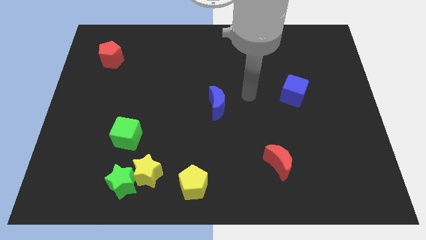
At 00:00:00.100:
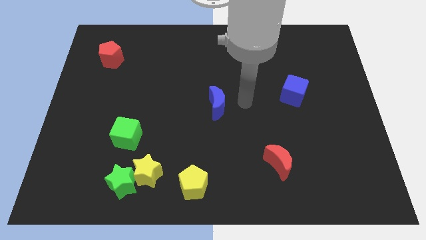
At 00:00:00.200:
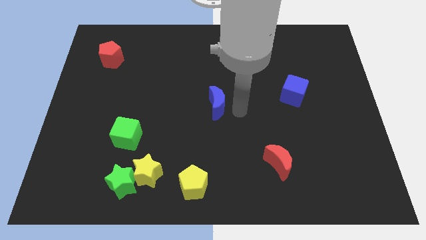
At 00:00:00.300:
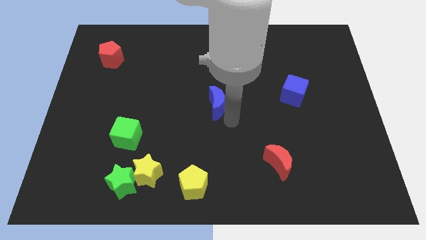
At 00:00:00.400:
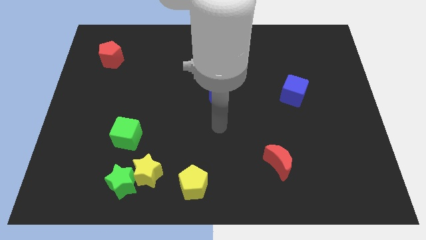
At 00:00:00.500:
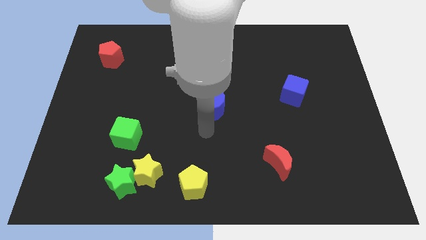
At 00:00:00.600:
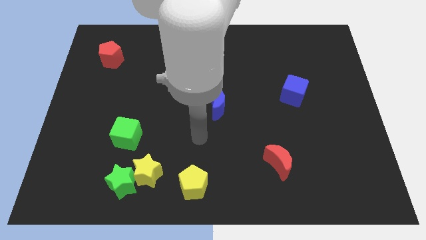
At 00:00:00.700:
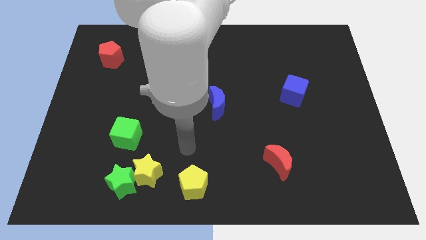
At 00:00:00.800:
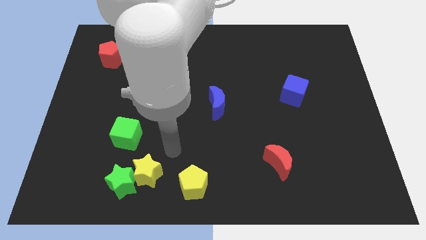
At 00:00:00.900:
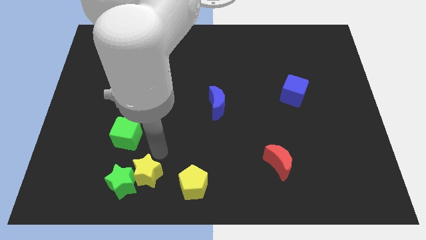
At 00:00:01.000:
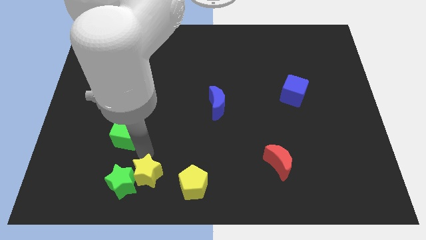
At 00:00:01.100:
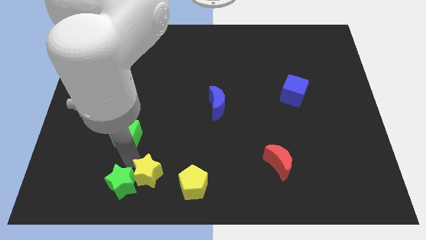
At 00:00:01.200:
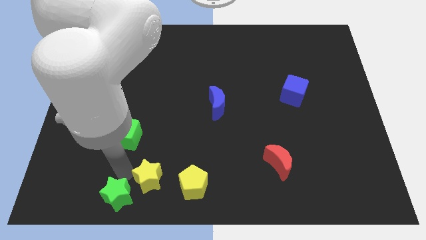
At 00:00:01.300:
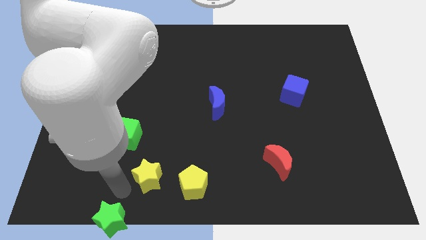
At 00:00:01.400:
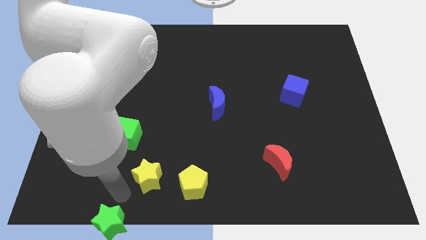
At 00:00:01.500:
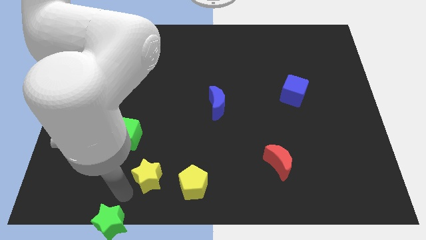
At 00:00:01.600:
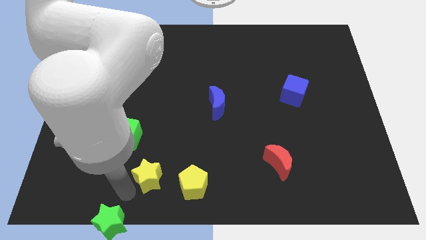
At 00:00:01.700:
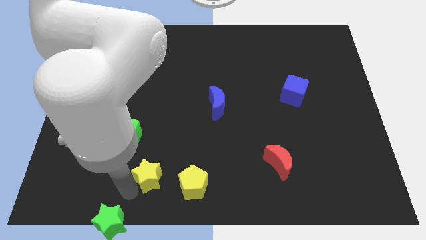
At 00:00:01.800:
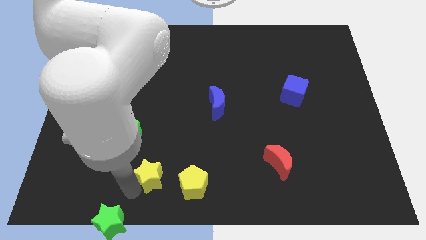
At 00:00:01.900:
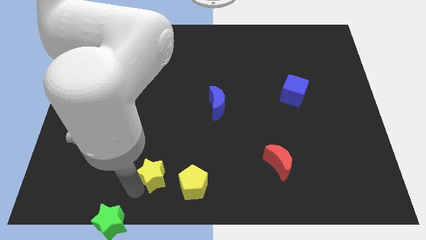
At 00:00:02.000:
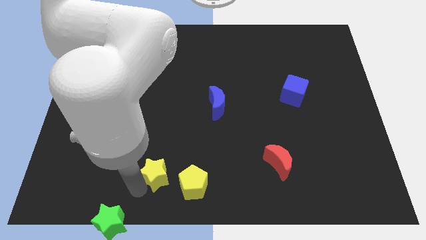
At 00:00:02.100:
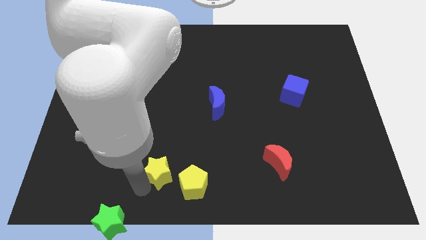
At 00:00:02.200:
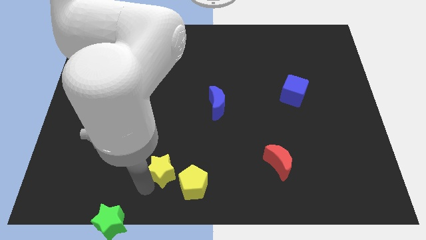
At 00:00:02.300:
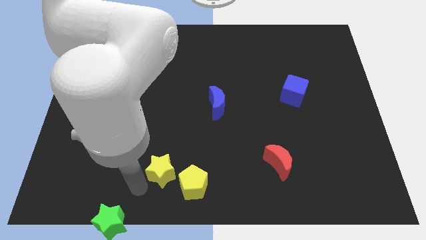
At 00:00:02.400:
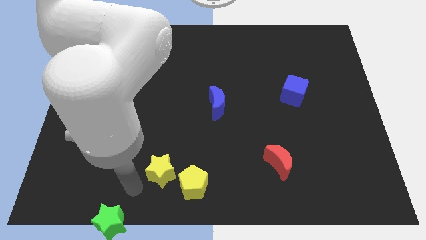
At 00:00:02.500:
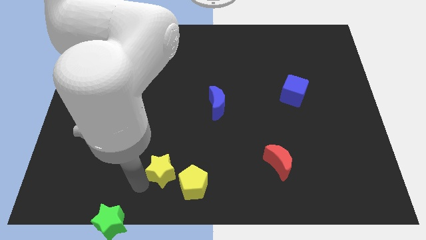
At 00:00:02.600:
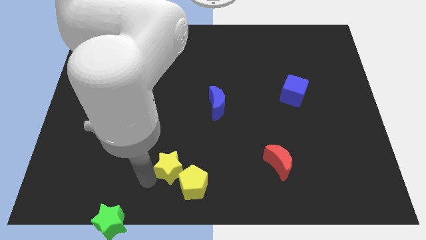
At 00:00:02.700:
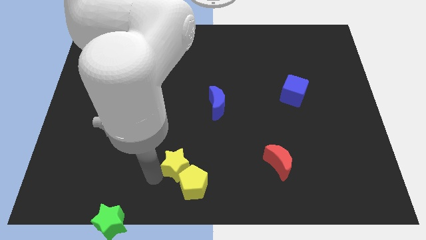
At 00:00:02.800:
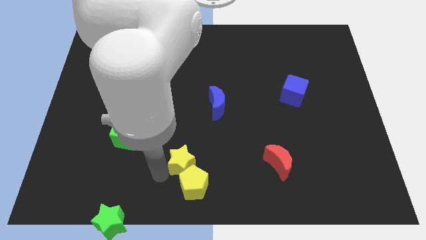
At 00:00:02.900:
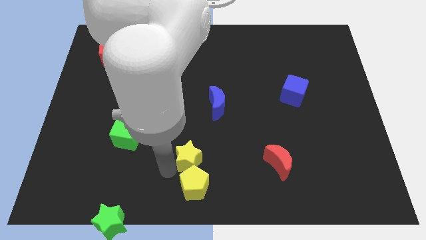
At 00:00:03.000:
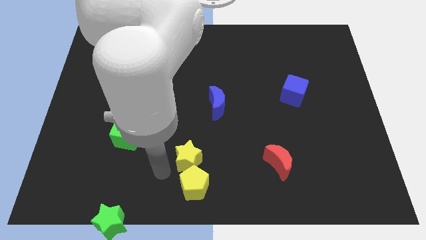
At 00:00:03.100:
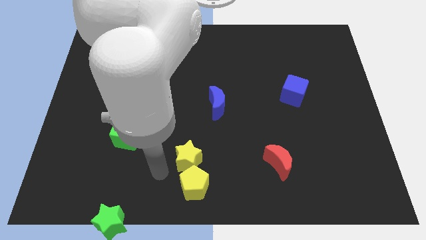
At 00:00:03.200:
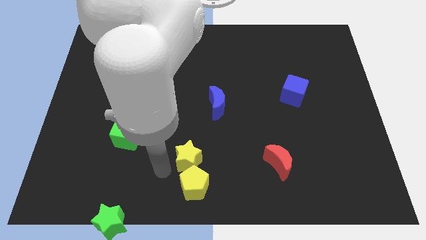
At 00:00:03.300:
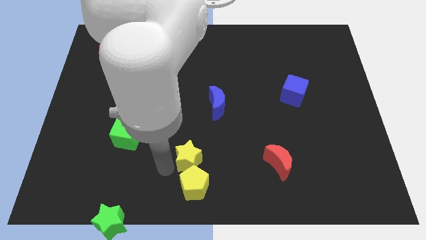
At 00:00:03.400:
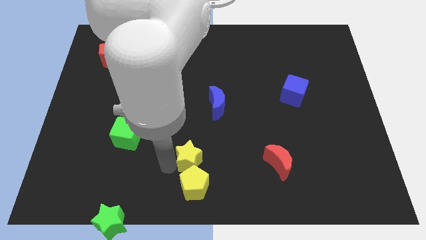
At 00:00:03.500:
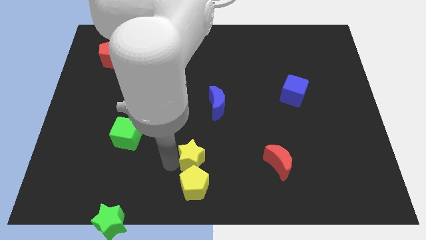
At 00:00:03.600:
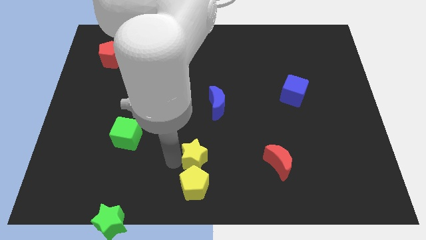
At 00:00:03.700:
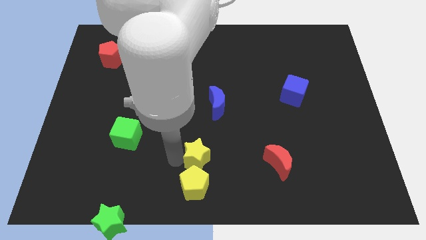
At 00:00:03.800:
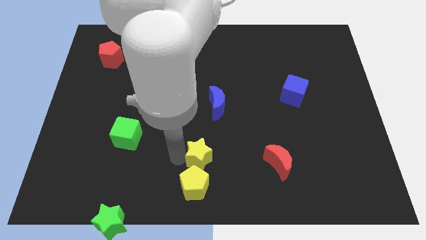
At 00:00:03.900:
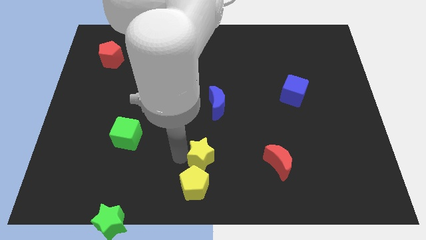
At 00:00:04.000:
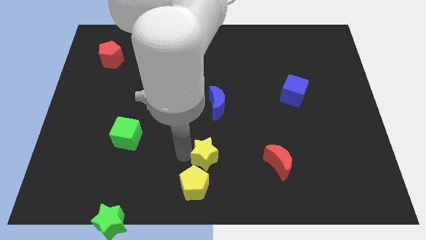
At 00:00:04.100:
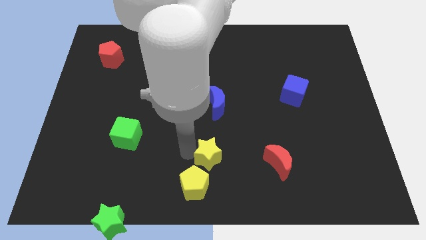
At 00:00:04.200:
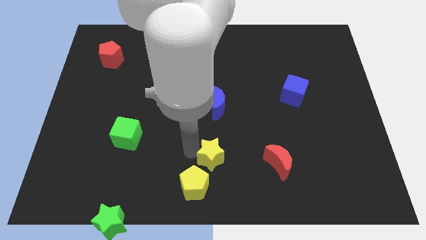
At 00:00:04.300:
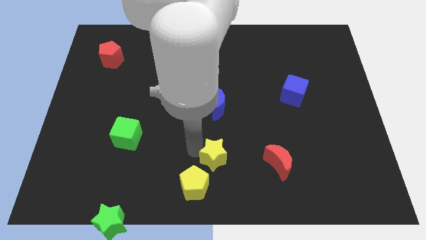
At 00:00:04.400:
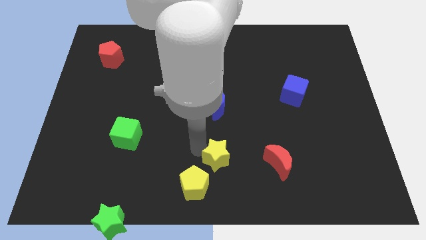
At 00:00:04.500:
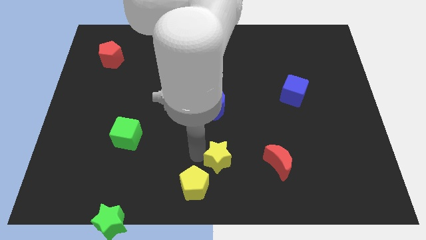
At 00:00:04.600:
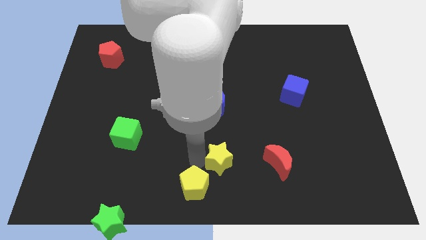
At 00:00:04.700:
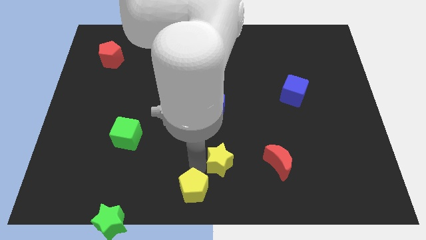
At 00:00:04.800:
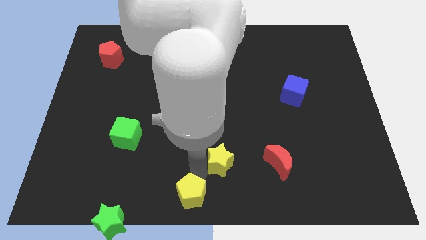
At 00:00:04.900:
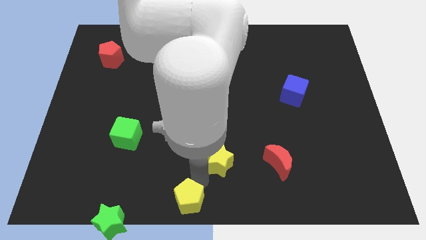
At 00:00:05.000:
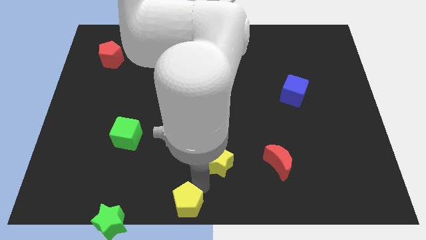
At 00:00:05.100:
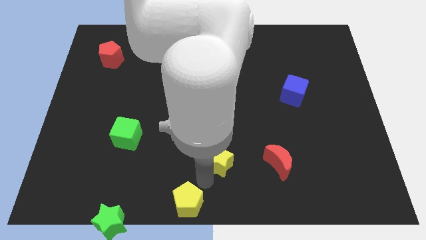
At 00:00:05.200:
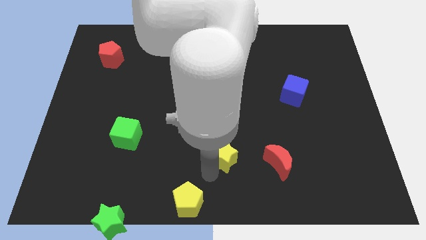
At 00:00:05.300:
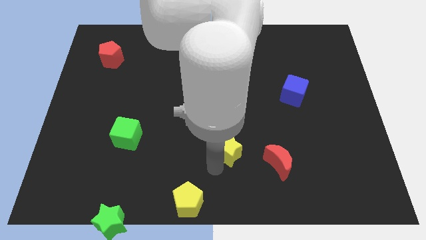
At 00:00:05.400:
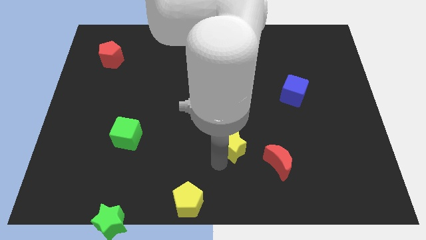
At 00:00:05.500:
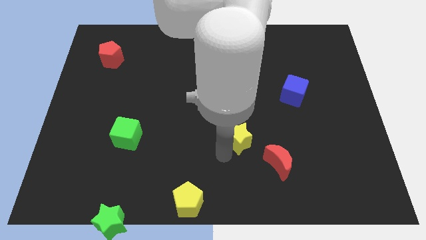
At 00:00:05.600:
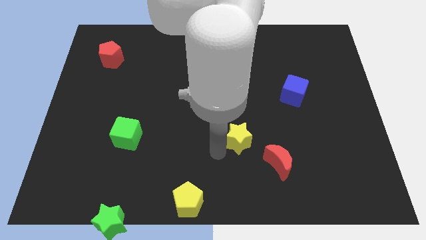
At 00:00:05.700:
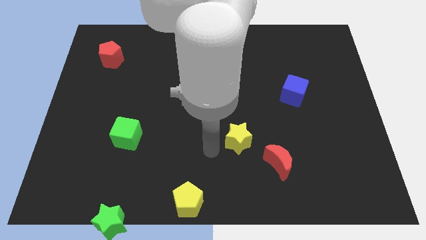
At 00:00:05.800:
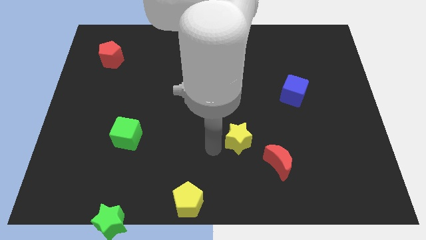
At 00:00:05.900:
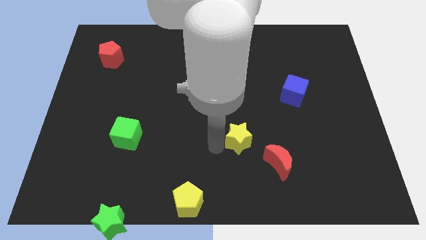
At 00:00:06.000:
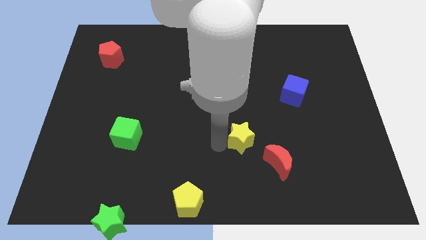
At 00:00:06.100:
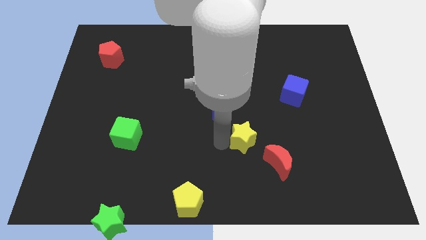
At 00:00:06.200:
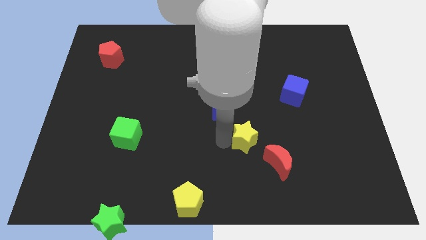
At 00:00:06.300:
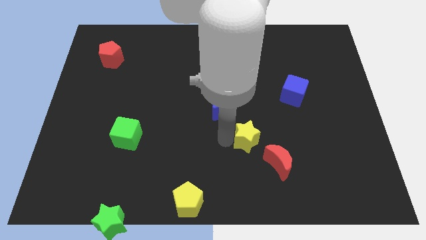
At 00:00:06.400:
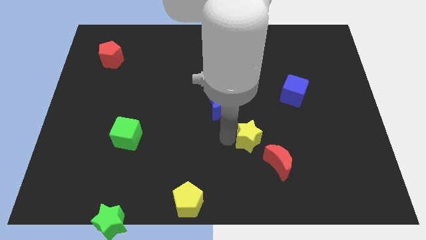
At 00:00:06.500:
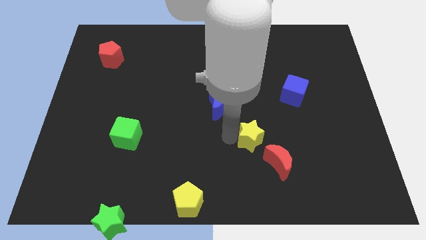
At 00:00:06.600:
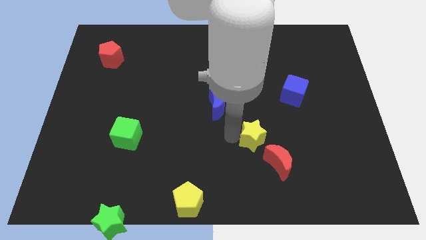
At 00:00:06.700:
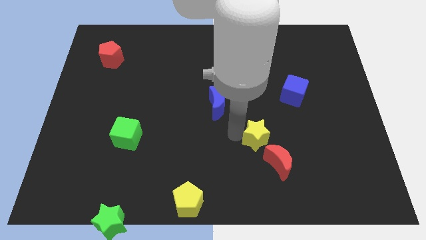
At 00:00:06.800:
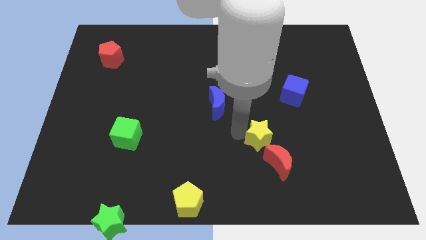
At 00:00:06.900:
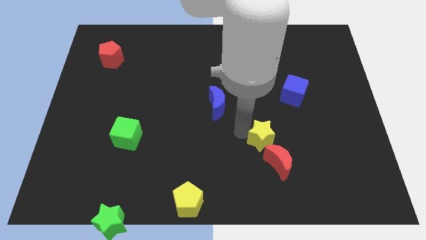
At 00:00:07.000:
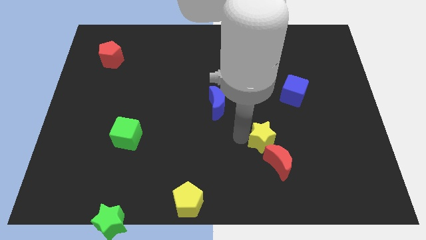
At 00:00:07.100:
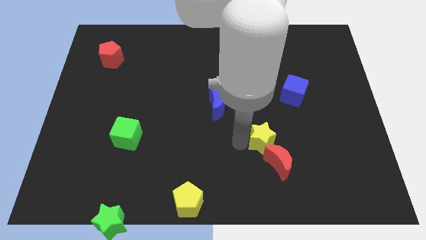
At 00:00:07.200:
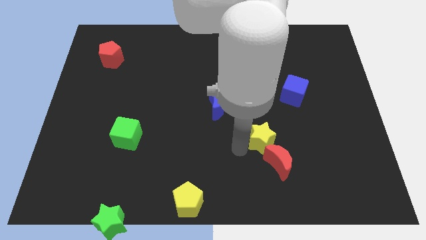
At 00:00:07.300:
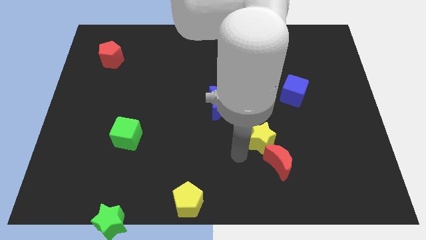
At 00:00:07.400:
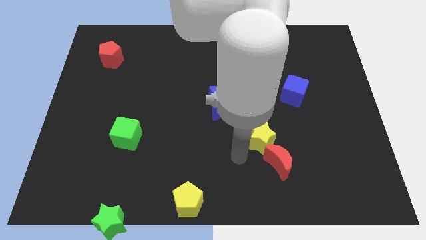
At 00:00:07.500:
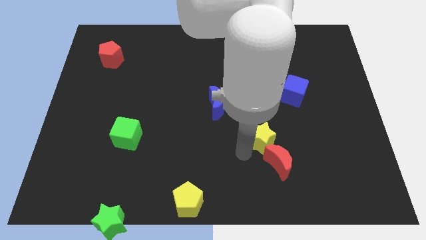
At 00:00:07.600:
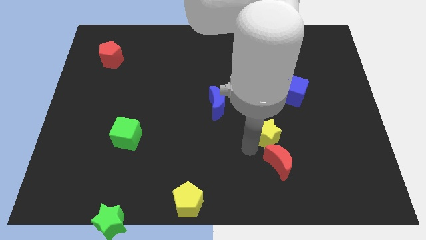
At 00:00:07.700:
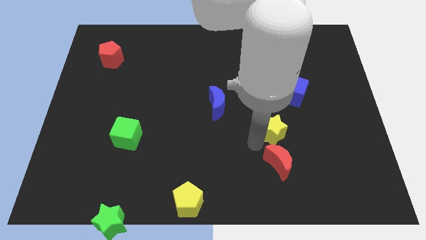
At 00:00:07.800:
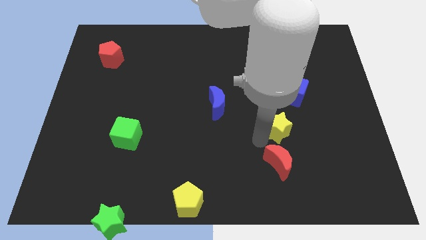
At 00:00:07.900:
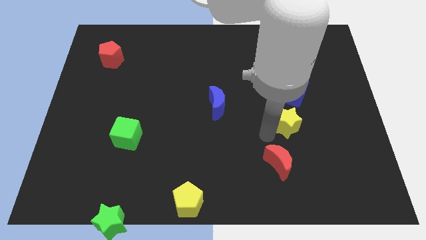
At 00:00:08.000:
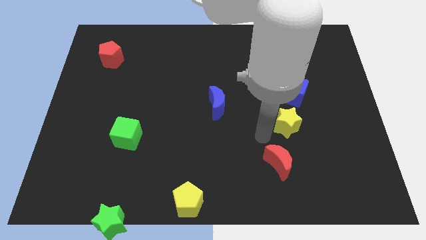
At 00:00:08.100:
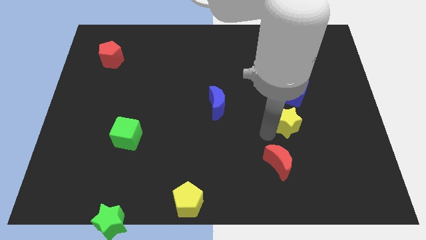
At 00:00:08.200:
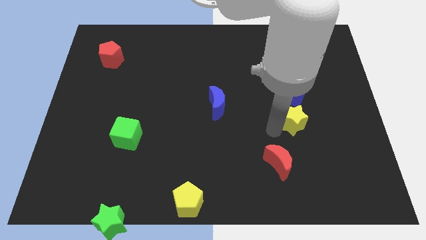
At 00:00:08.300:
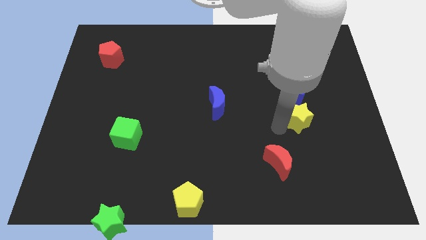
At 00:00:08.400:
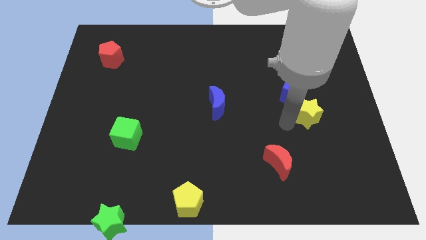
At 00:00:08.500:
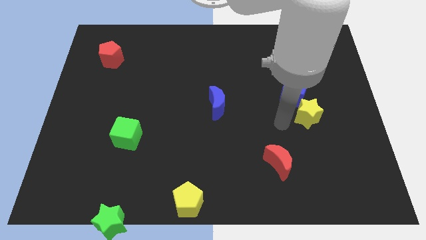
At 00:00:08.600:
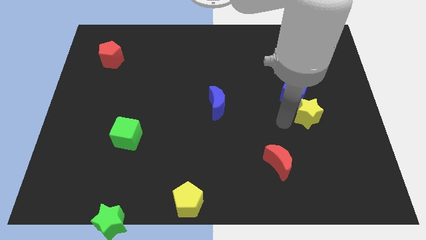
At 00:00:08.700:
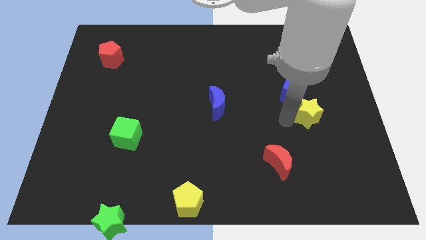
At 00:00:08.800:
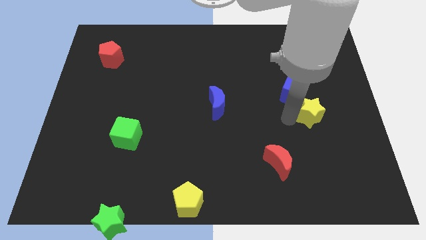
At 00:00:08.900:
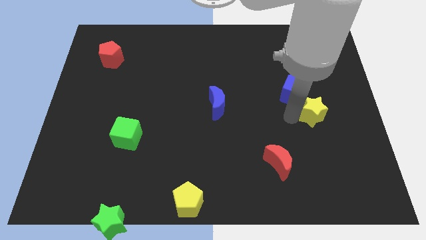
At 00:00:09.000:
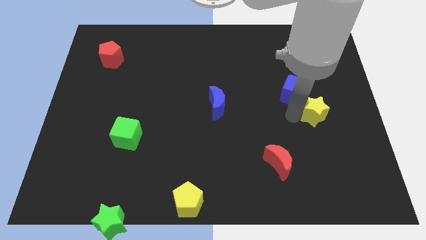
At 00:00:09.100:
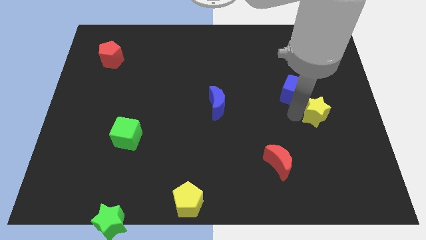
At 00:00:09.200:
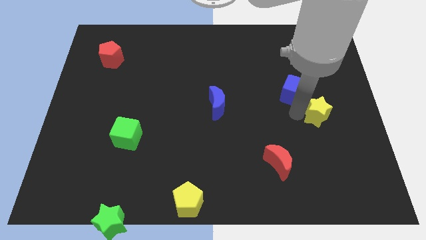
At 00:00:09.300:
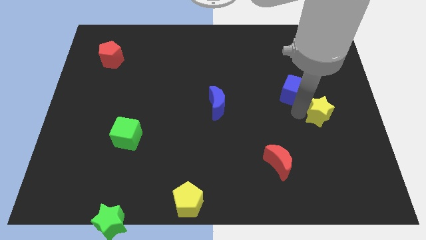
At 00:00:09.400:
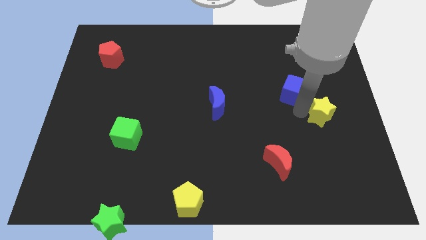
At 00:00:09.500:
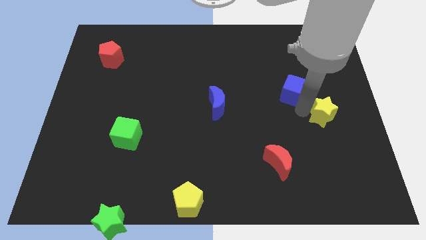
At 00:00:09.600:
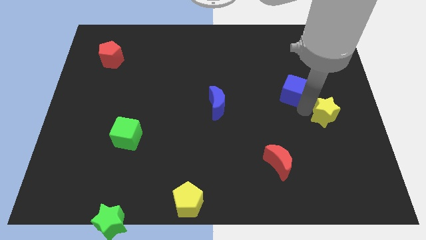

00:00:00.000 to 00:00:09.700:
move the yellow star to the right side of the board
